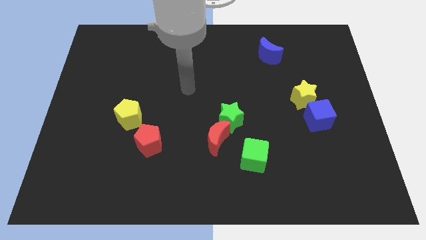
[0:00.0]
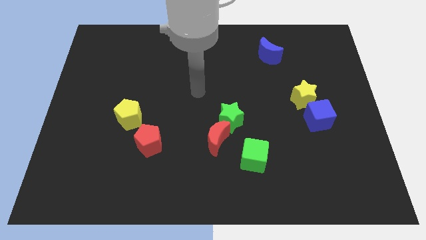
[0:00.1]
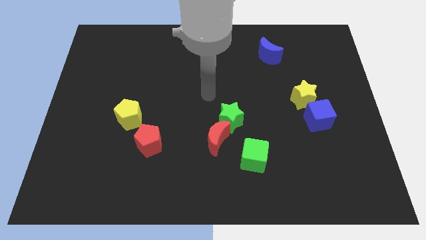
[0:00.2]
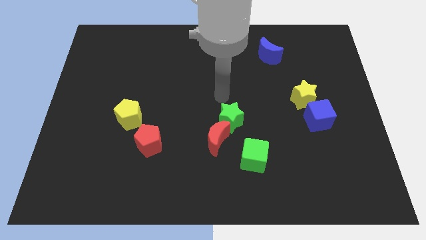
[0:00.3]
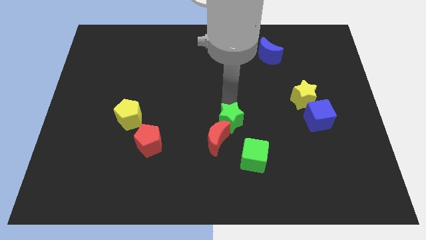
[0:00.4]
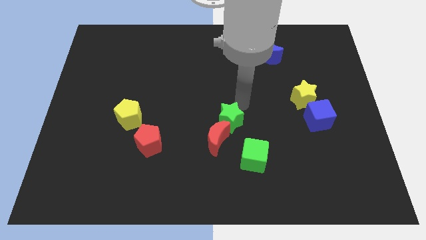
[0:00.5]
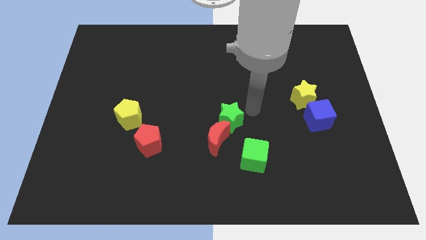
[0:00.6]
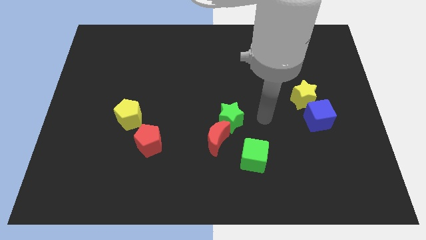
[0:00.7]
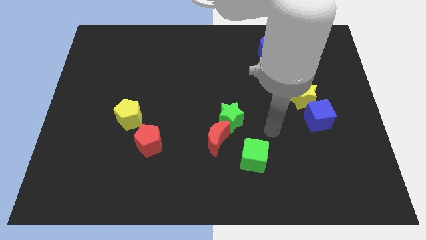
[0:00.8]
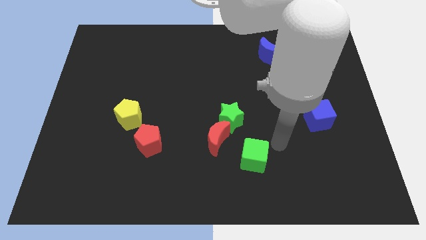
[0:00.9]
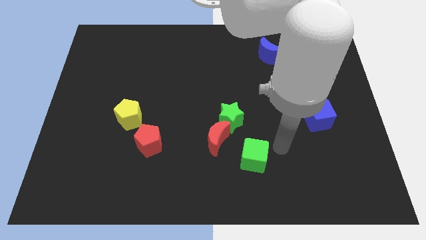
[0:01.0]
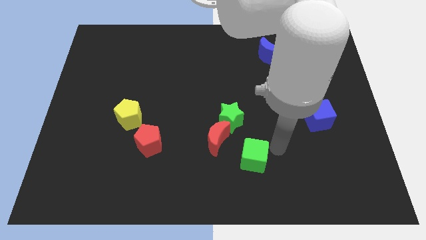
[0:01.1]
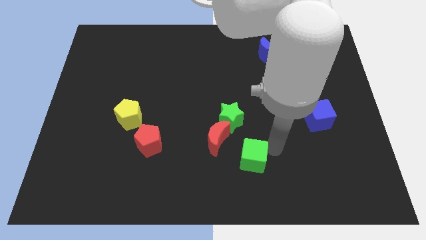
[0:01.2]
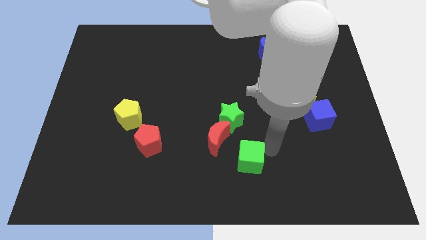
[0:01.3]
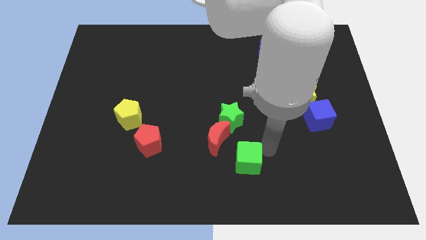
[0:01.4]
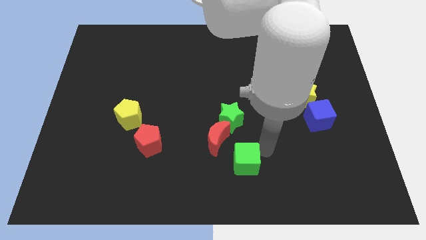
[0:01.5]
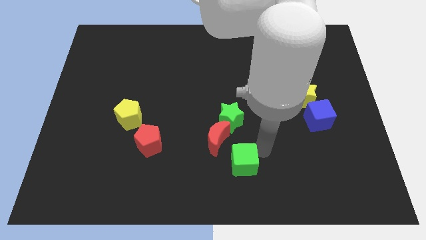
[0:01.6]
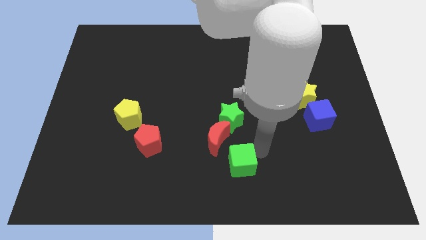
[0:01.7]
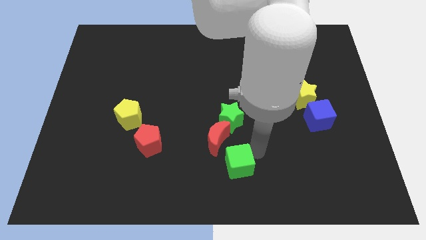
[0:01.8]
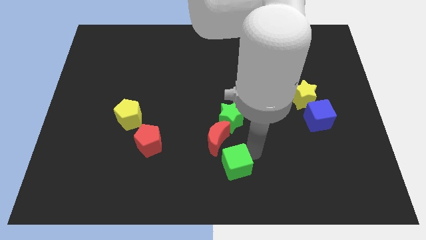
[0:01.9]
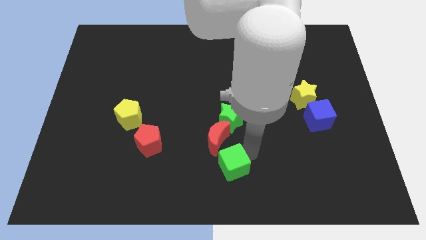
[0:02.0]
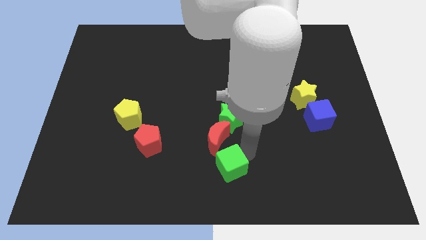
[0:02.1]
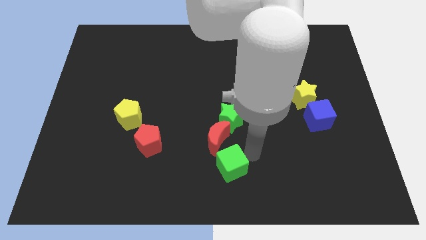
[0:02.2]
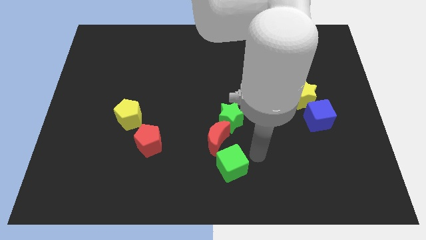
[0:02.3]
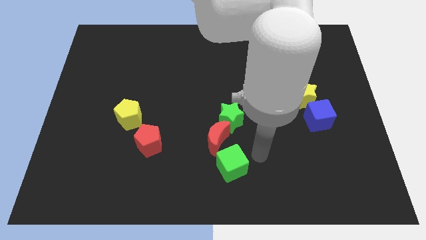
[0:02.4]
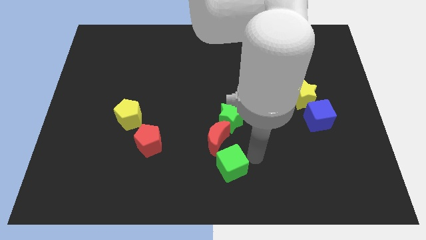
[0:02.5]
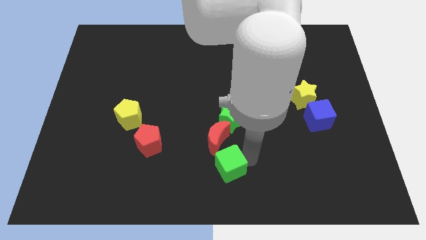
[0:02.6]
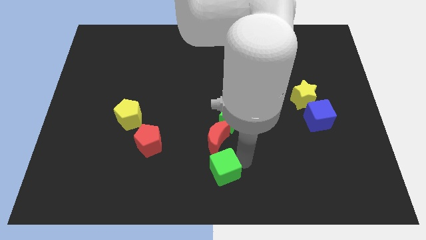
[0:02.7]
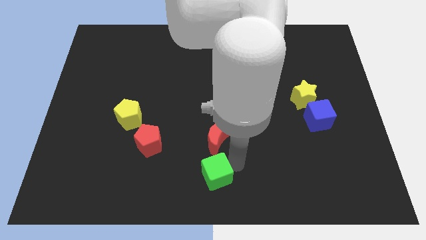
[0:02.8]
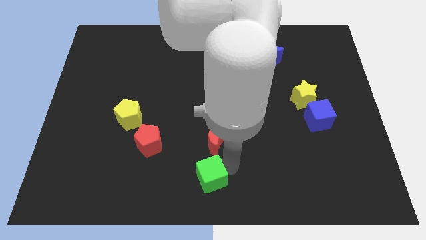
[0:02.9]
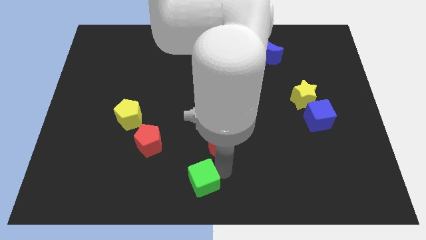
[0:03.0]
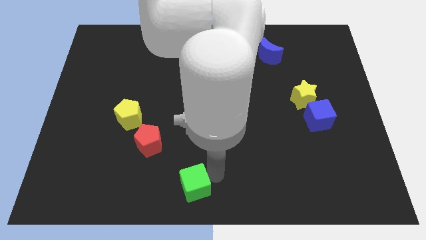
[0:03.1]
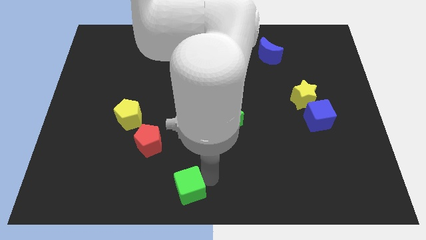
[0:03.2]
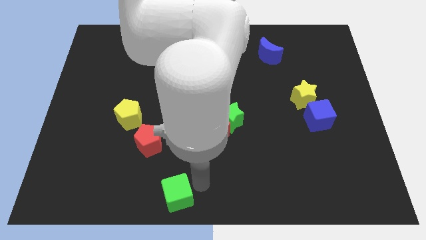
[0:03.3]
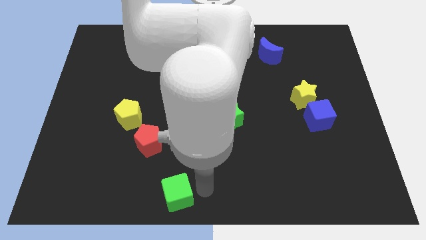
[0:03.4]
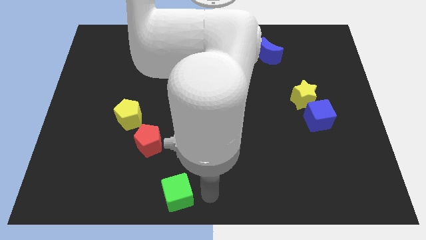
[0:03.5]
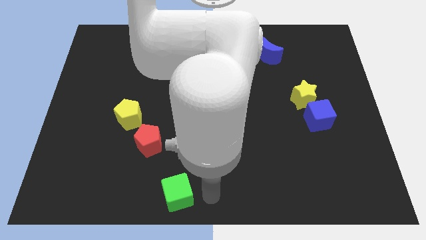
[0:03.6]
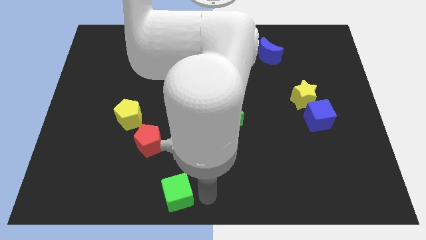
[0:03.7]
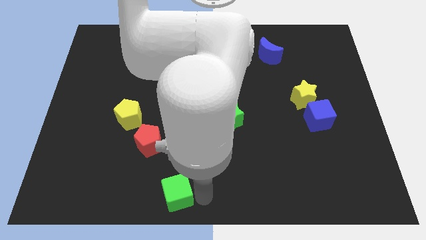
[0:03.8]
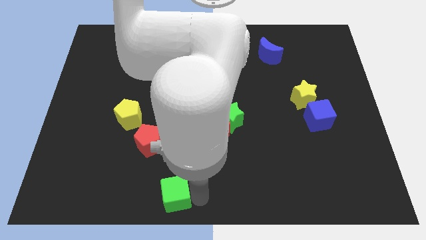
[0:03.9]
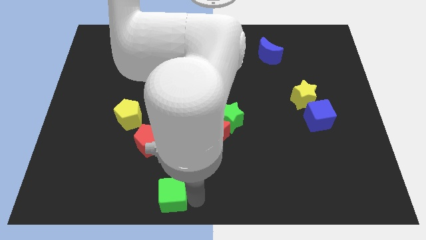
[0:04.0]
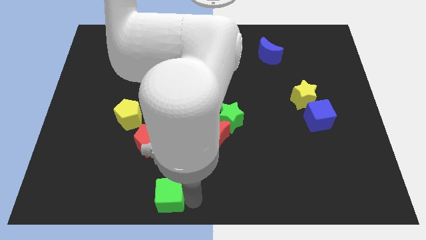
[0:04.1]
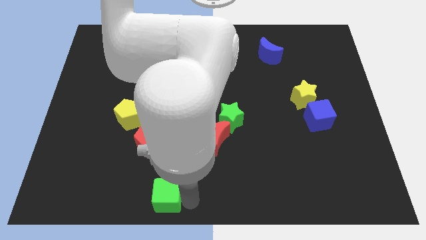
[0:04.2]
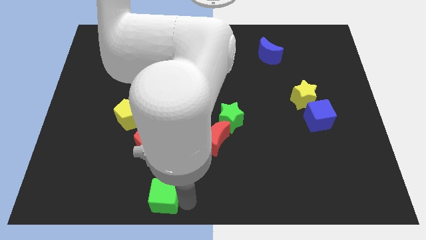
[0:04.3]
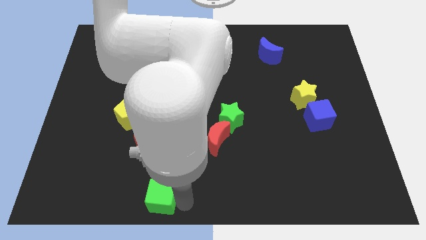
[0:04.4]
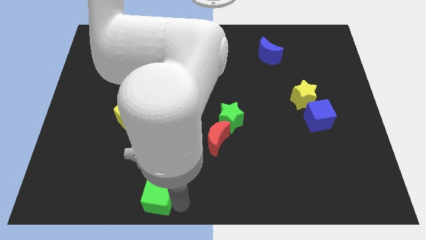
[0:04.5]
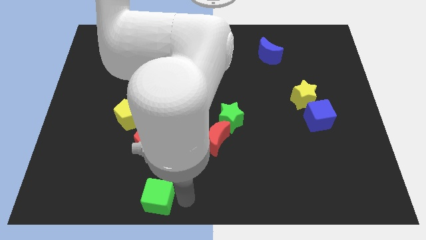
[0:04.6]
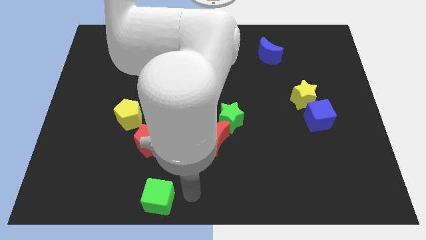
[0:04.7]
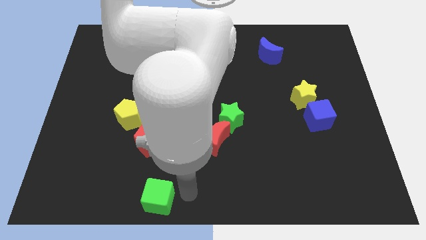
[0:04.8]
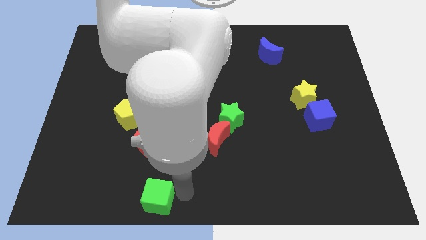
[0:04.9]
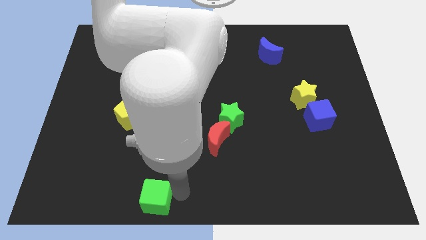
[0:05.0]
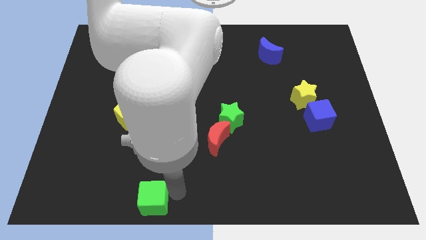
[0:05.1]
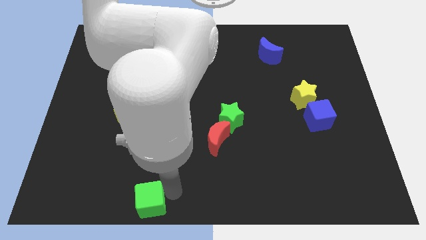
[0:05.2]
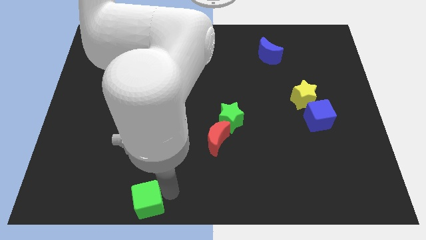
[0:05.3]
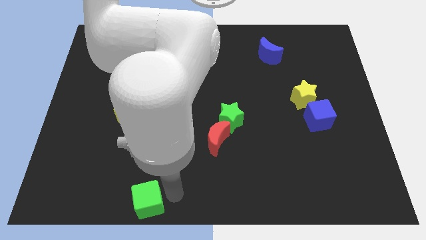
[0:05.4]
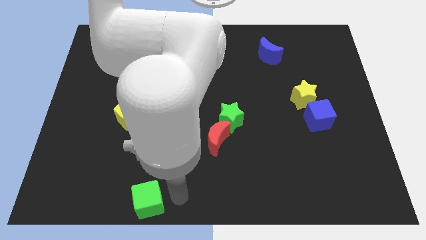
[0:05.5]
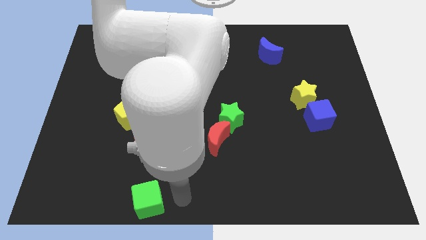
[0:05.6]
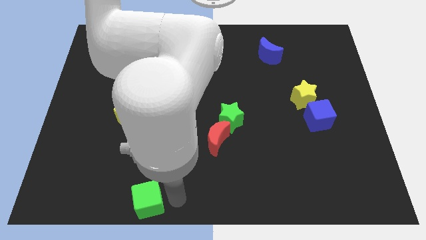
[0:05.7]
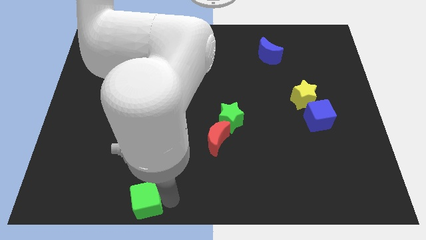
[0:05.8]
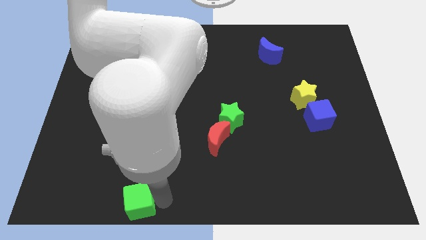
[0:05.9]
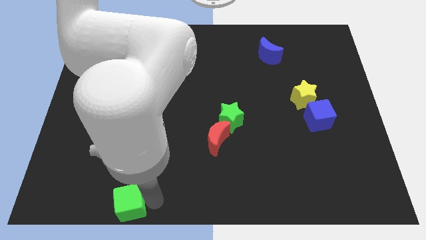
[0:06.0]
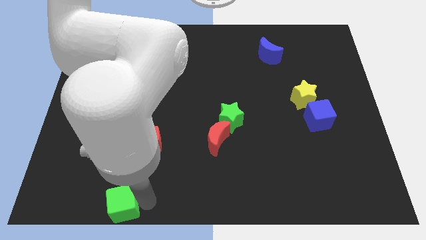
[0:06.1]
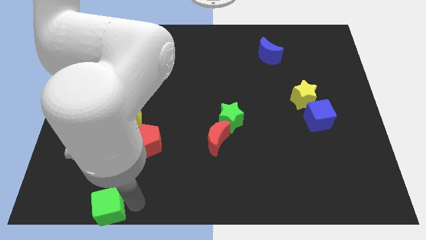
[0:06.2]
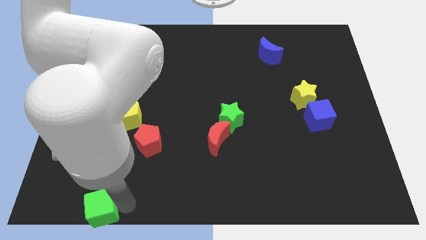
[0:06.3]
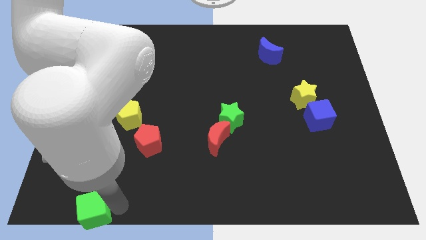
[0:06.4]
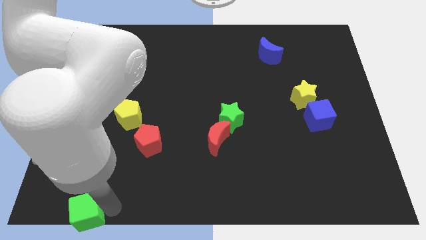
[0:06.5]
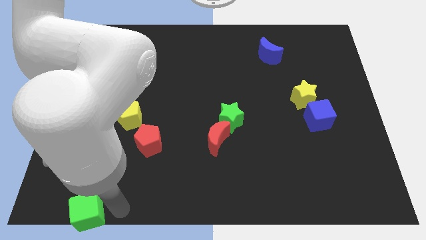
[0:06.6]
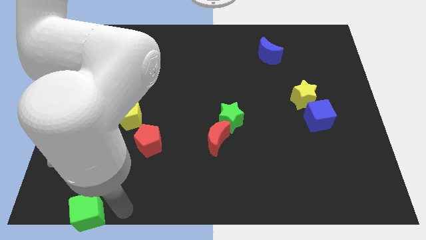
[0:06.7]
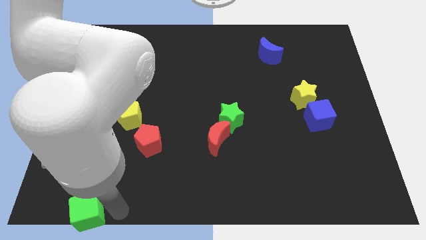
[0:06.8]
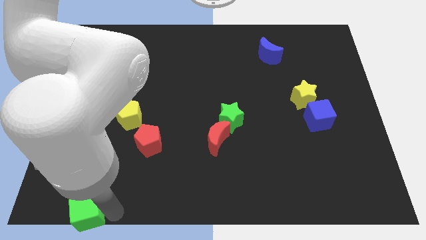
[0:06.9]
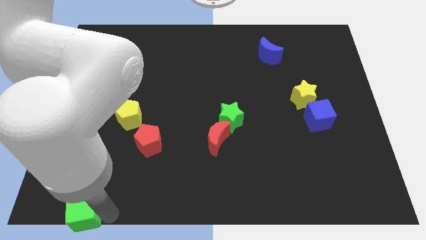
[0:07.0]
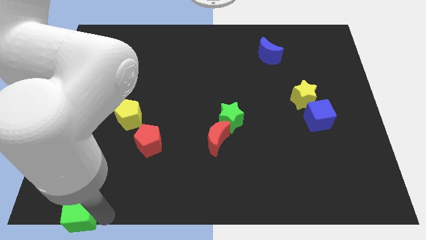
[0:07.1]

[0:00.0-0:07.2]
move the green cube to the bottom left of the board

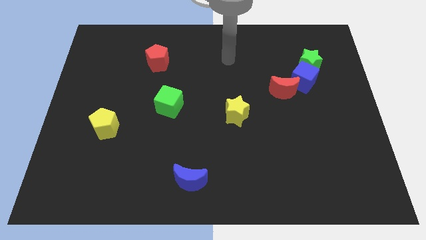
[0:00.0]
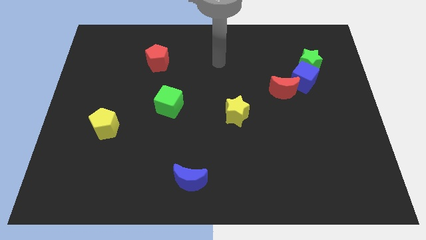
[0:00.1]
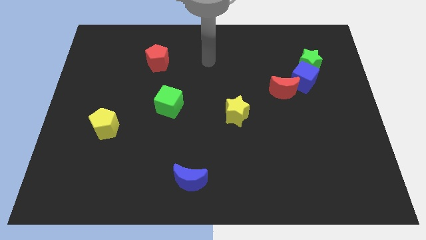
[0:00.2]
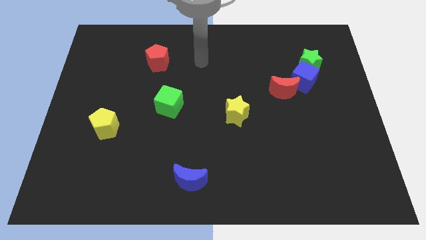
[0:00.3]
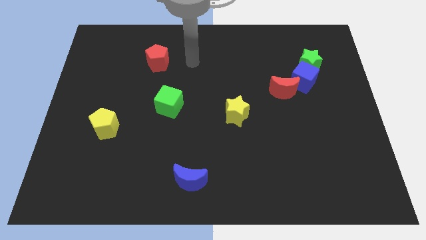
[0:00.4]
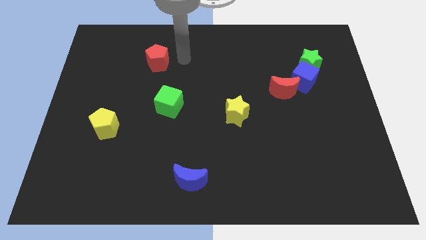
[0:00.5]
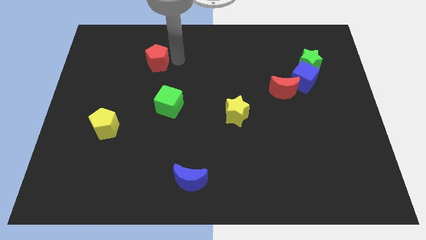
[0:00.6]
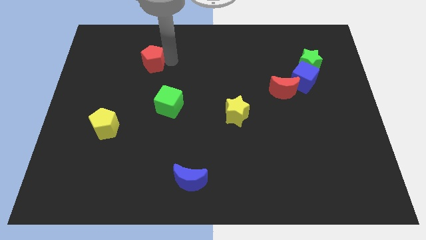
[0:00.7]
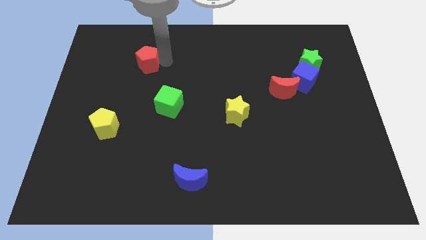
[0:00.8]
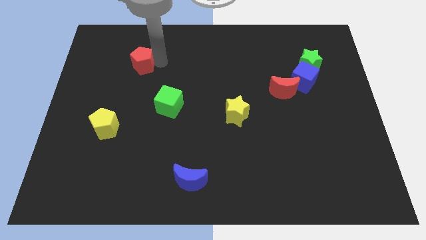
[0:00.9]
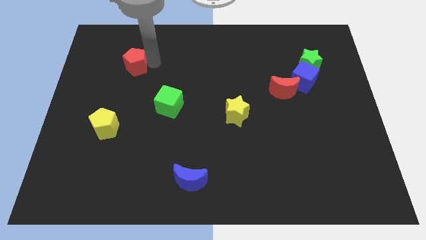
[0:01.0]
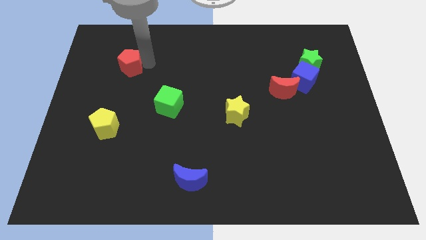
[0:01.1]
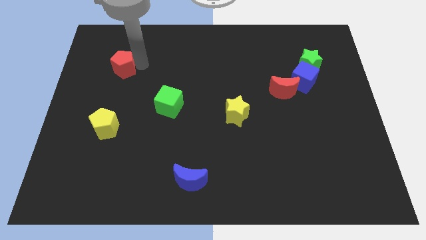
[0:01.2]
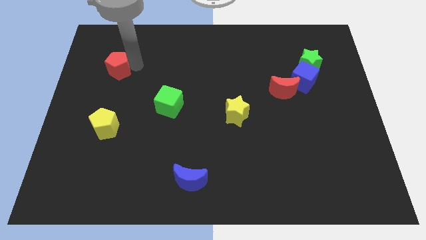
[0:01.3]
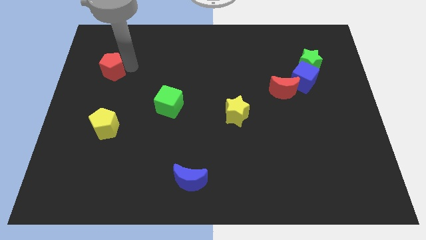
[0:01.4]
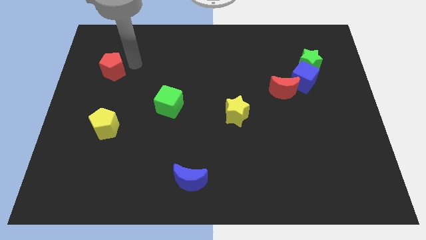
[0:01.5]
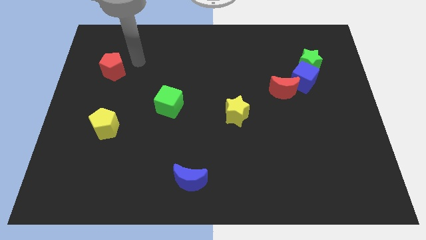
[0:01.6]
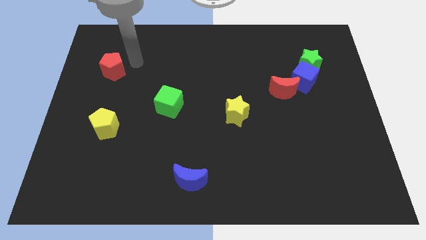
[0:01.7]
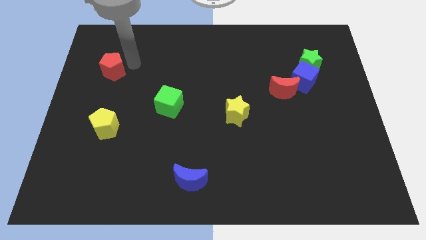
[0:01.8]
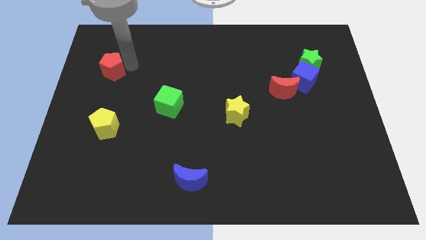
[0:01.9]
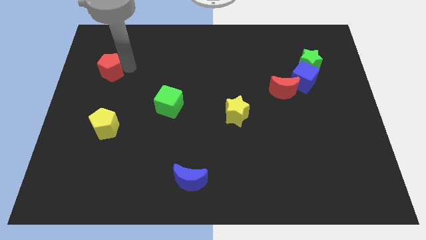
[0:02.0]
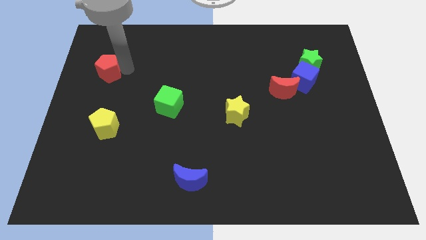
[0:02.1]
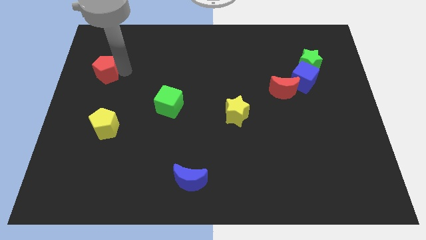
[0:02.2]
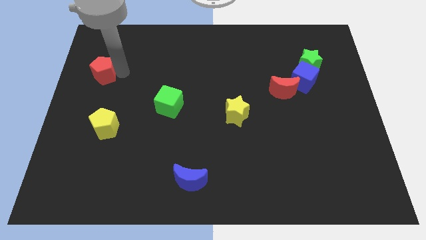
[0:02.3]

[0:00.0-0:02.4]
slide the red pentagon to the left side
